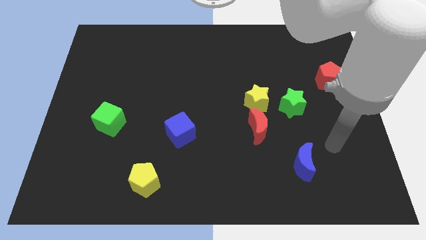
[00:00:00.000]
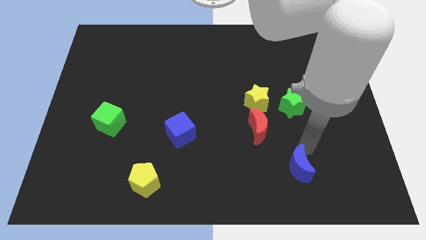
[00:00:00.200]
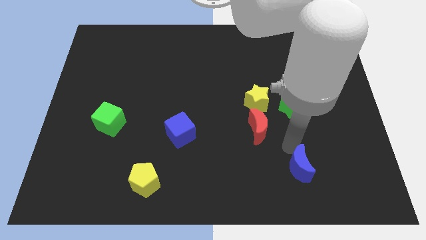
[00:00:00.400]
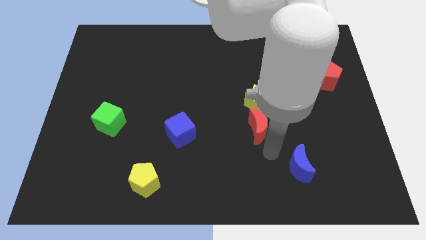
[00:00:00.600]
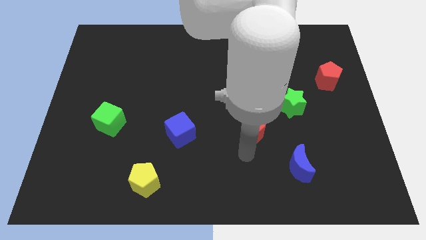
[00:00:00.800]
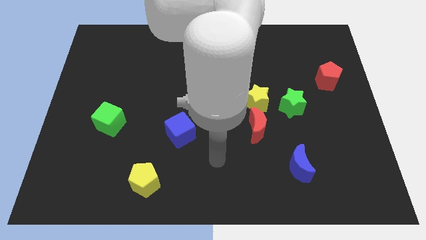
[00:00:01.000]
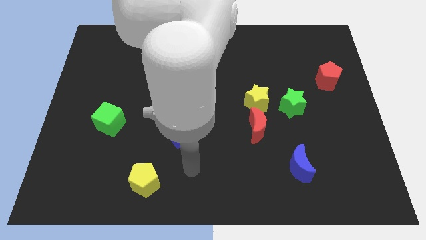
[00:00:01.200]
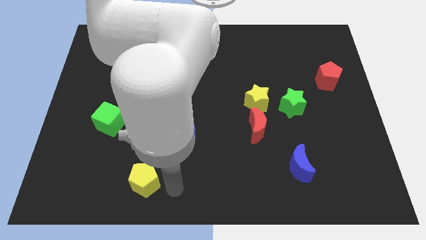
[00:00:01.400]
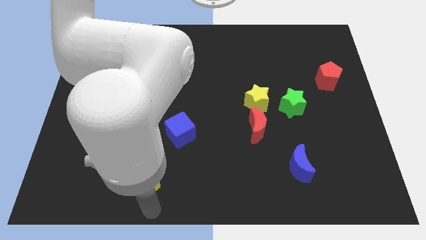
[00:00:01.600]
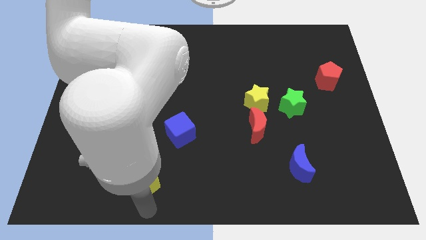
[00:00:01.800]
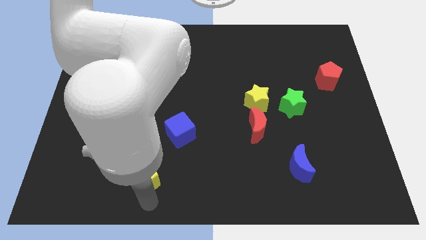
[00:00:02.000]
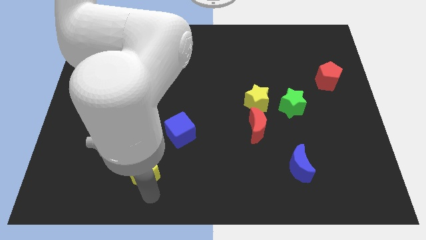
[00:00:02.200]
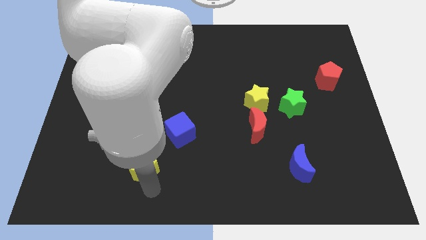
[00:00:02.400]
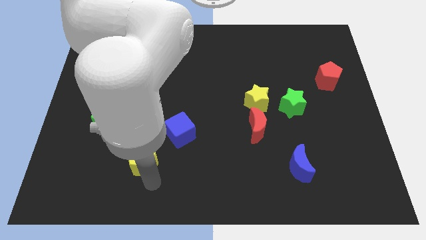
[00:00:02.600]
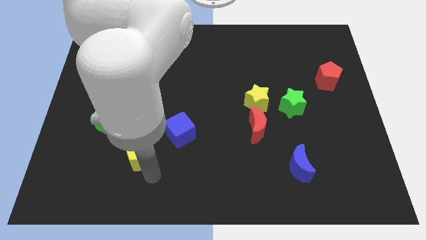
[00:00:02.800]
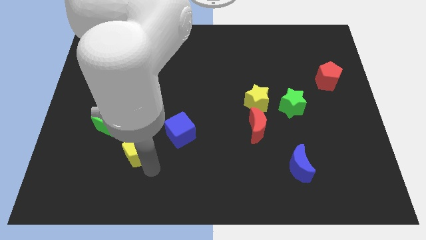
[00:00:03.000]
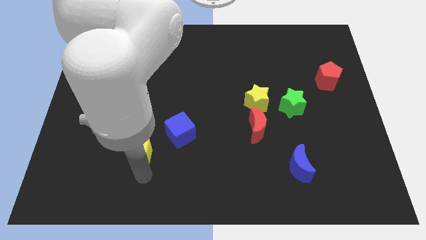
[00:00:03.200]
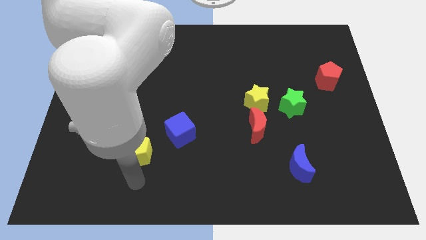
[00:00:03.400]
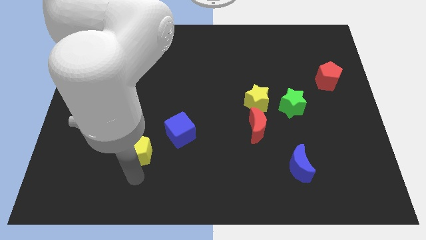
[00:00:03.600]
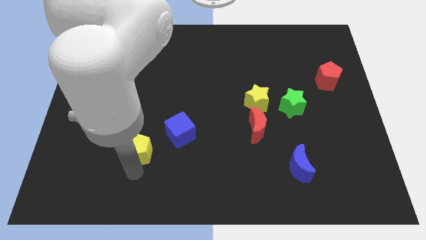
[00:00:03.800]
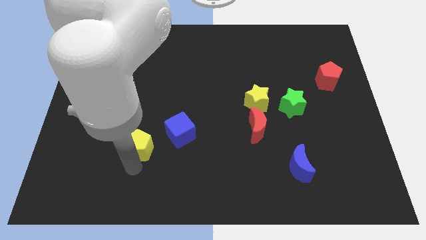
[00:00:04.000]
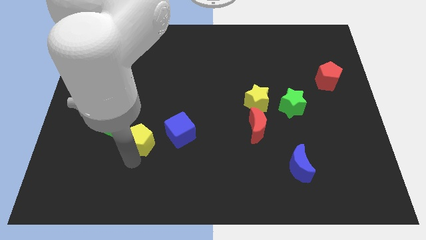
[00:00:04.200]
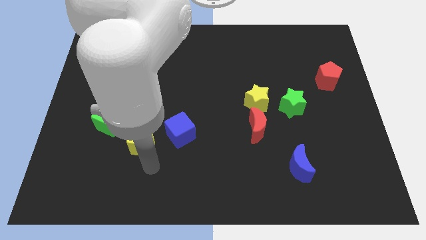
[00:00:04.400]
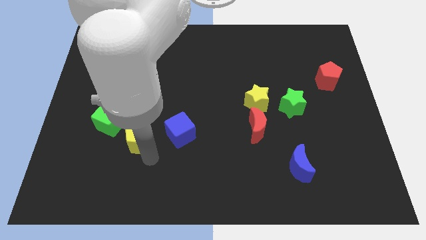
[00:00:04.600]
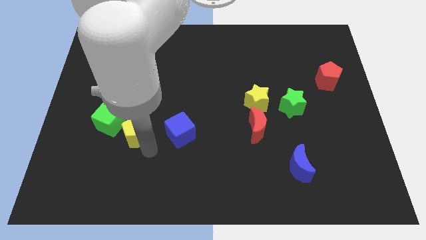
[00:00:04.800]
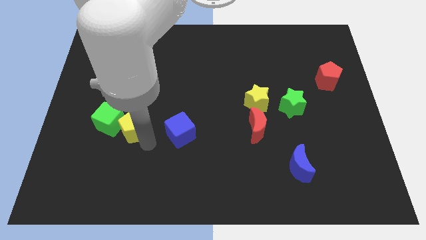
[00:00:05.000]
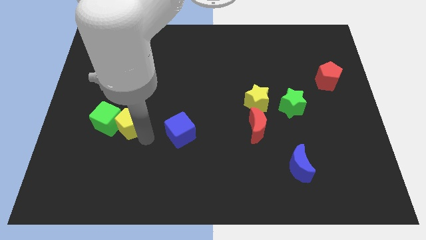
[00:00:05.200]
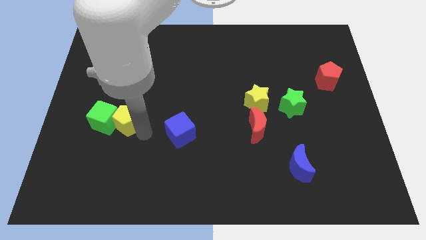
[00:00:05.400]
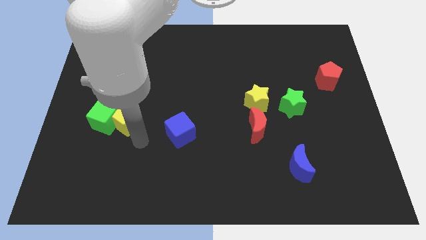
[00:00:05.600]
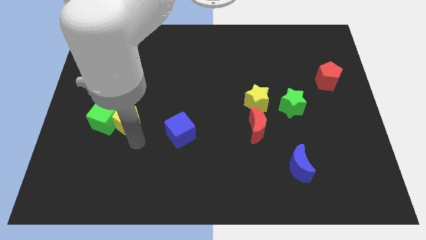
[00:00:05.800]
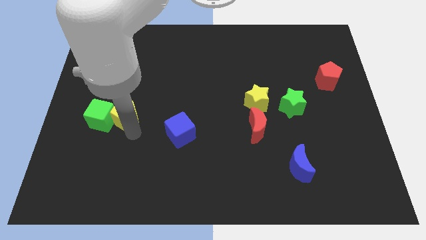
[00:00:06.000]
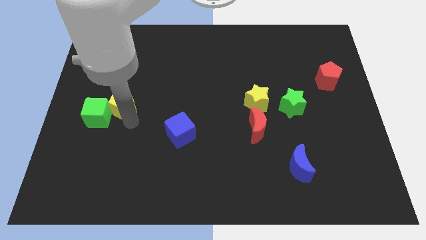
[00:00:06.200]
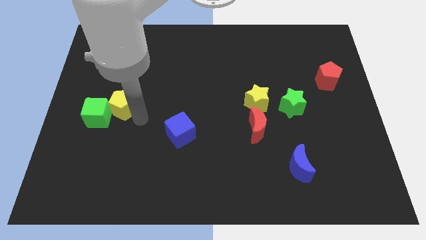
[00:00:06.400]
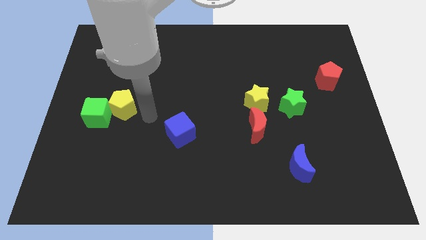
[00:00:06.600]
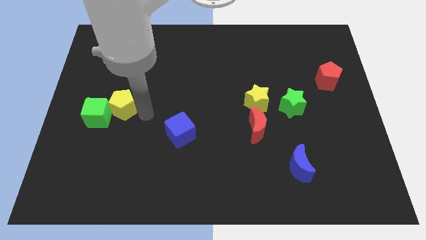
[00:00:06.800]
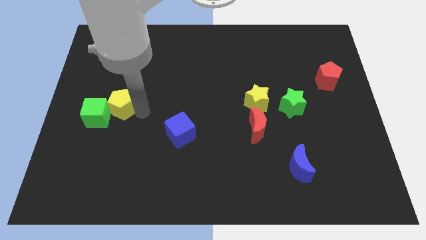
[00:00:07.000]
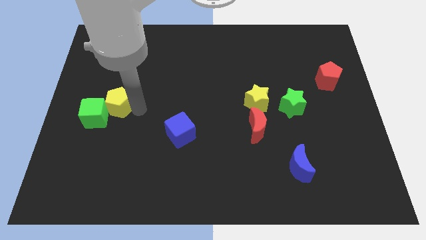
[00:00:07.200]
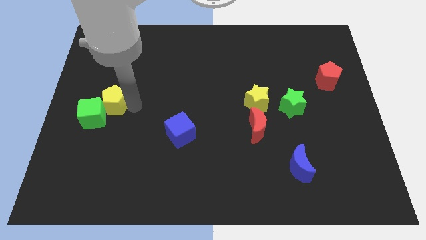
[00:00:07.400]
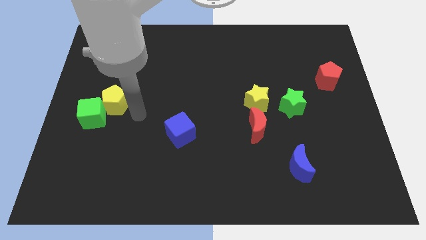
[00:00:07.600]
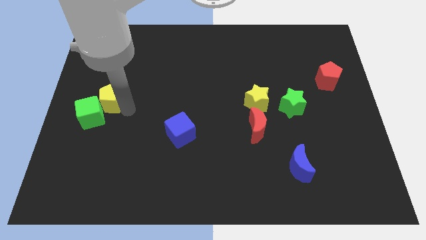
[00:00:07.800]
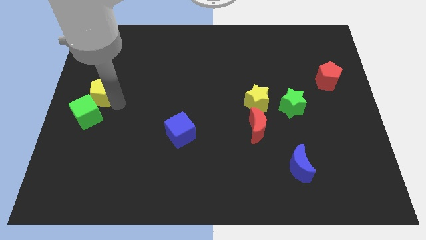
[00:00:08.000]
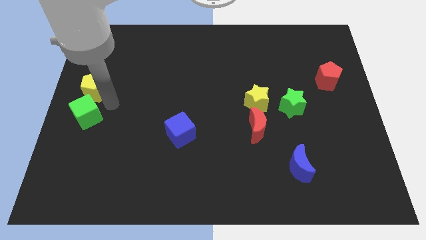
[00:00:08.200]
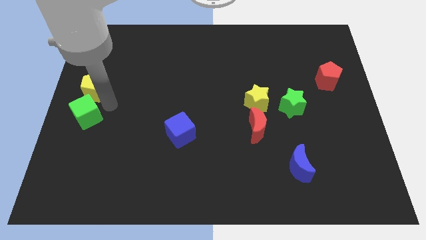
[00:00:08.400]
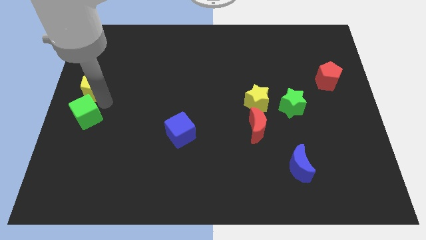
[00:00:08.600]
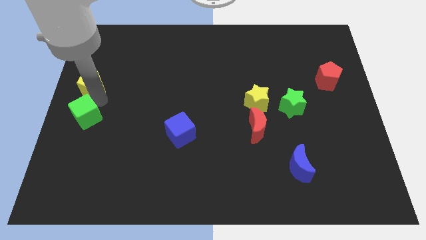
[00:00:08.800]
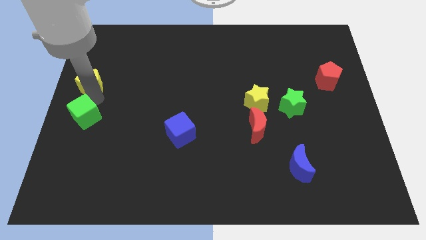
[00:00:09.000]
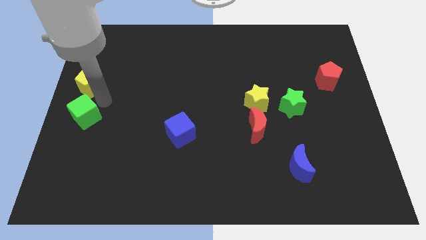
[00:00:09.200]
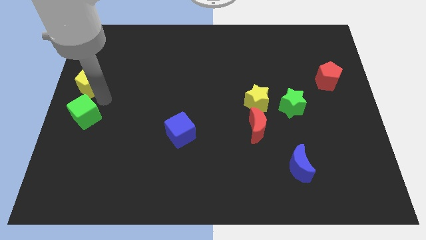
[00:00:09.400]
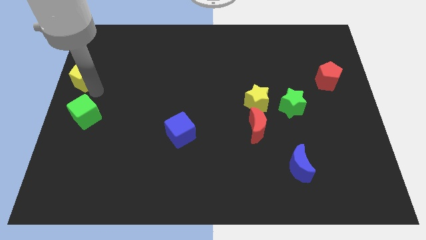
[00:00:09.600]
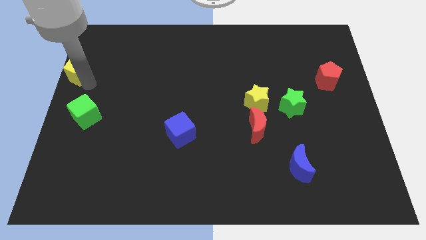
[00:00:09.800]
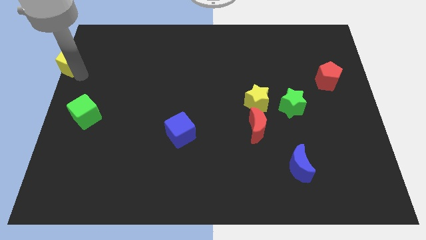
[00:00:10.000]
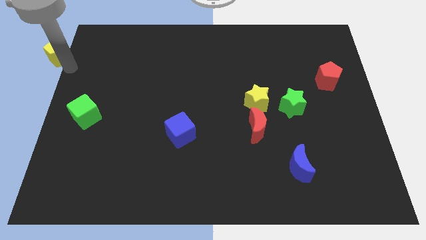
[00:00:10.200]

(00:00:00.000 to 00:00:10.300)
put the yellow pentagon to the top left

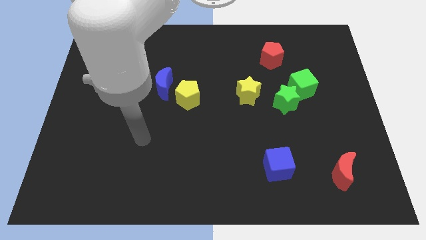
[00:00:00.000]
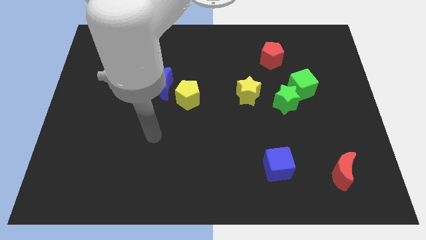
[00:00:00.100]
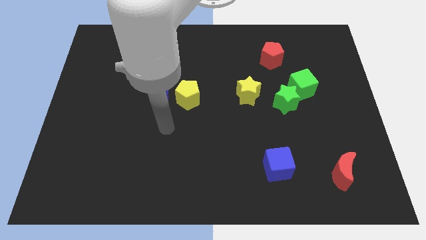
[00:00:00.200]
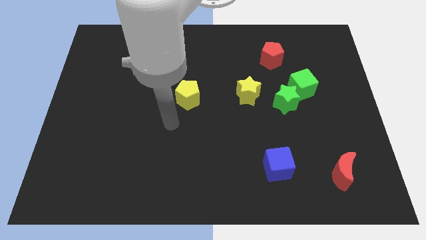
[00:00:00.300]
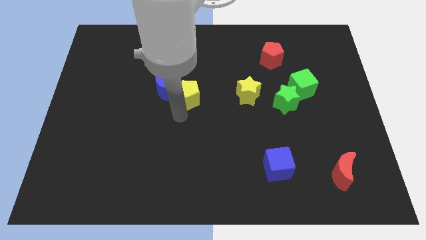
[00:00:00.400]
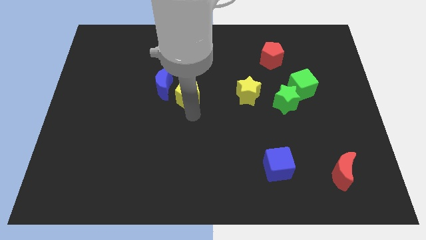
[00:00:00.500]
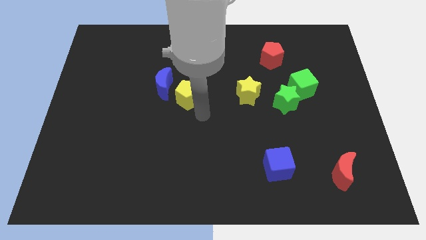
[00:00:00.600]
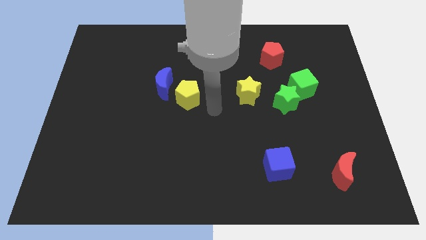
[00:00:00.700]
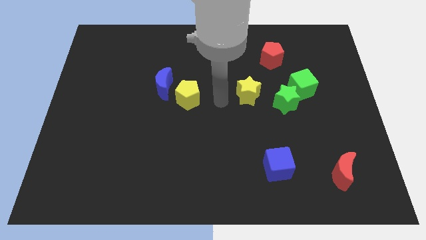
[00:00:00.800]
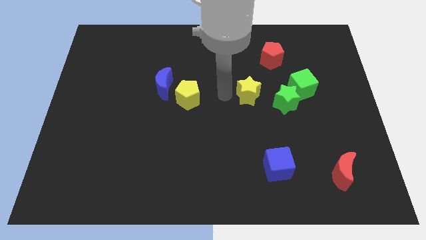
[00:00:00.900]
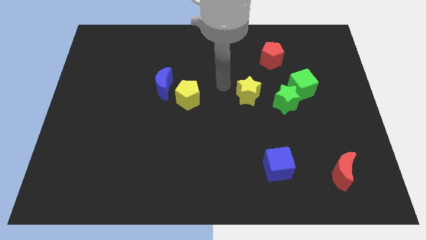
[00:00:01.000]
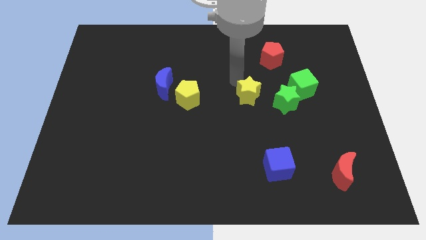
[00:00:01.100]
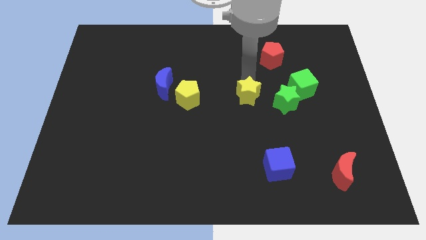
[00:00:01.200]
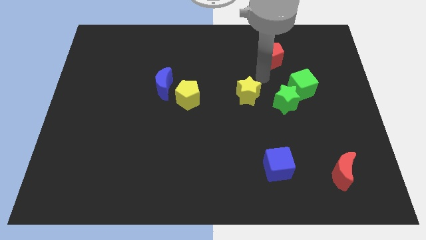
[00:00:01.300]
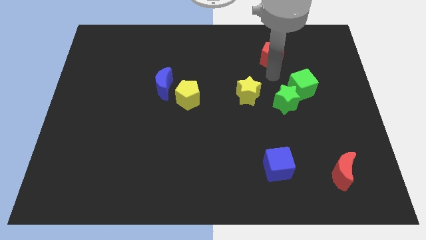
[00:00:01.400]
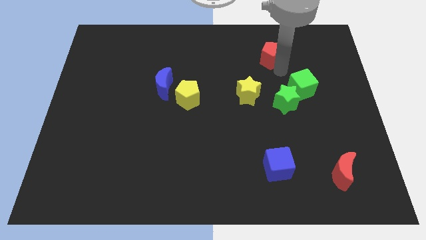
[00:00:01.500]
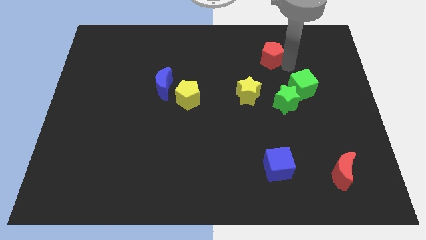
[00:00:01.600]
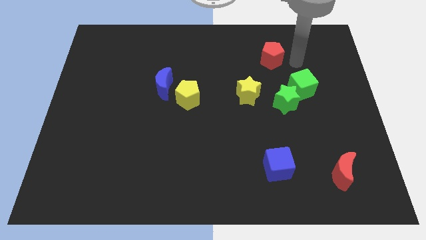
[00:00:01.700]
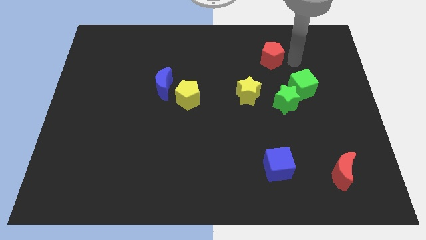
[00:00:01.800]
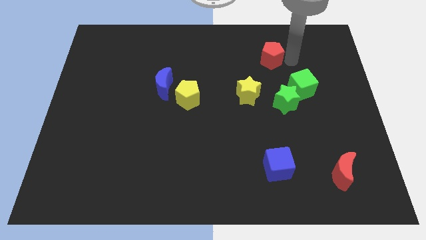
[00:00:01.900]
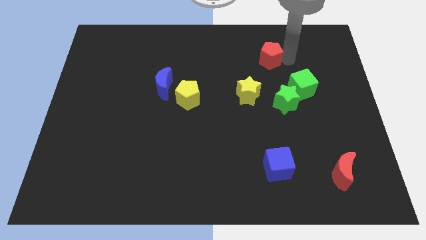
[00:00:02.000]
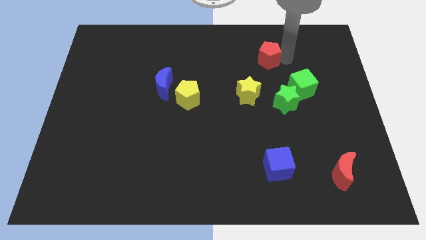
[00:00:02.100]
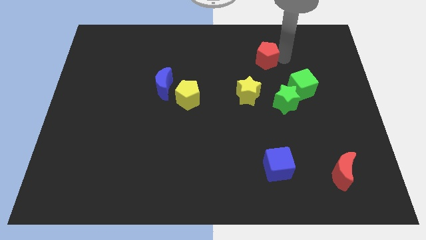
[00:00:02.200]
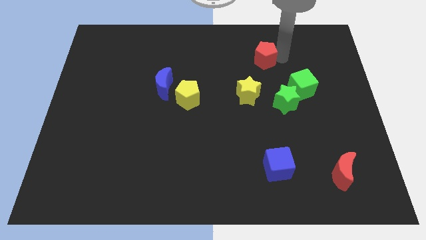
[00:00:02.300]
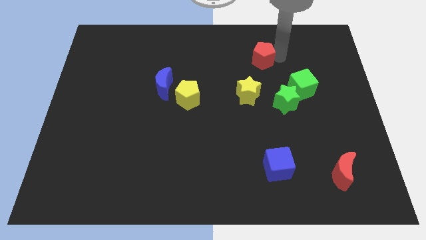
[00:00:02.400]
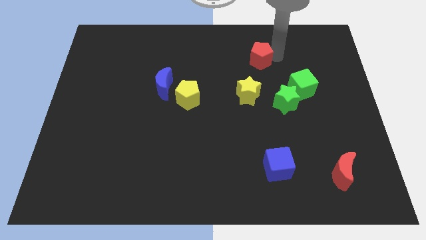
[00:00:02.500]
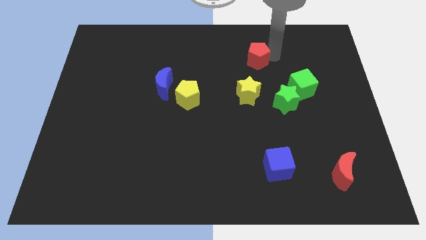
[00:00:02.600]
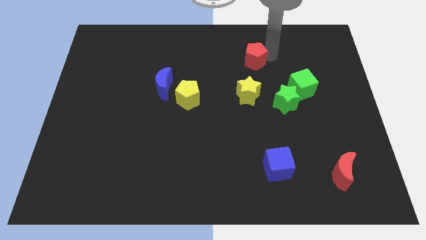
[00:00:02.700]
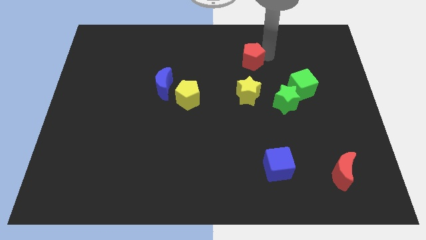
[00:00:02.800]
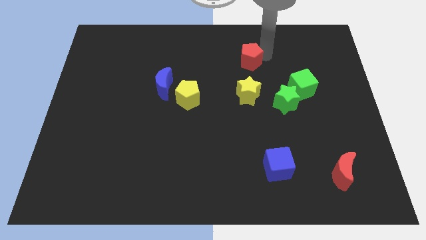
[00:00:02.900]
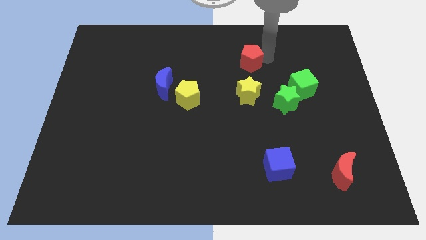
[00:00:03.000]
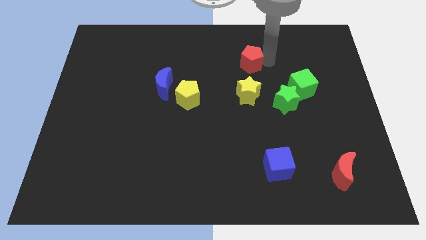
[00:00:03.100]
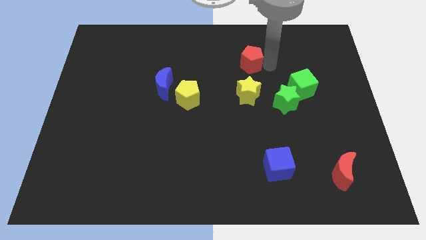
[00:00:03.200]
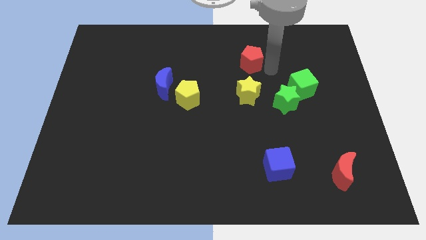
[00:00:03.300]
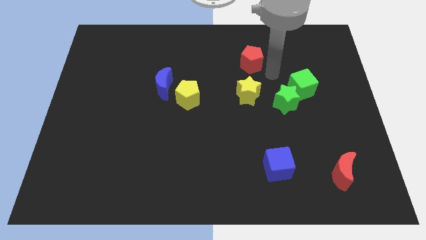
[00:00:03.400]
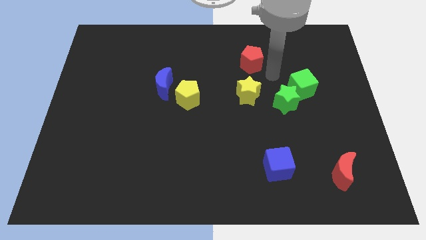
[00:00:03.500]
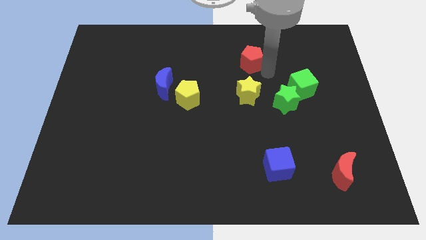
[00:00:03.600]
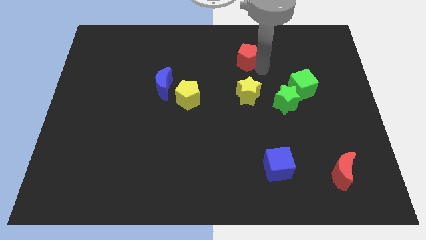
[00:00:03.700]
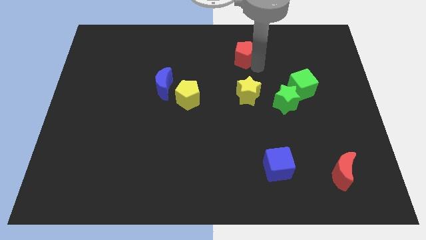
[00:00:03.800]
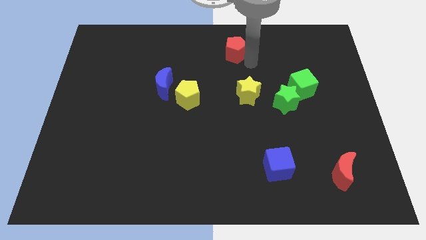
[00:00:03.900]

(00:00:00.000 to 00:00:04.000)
move the red pentagon to the top
